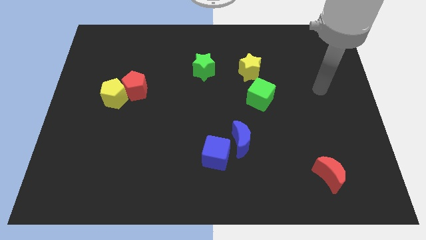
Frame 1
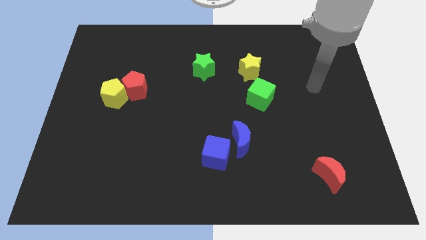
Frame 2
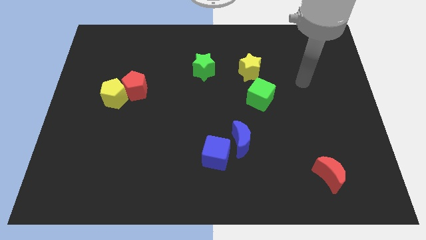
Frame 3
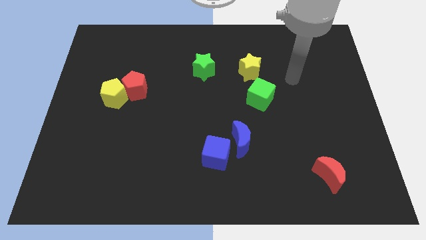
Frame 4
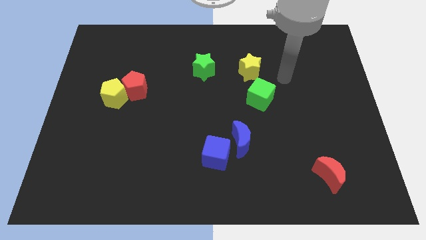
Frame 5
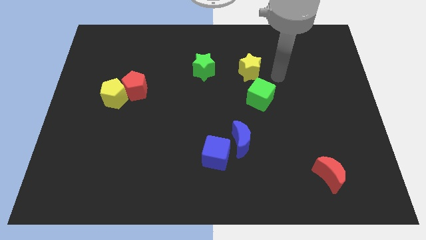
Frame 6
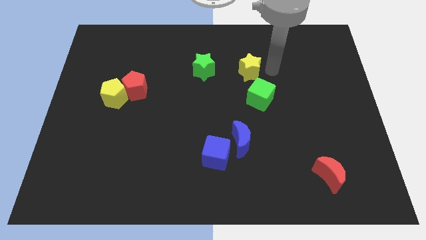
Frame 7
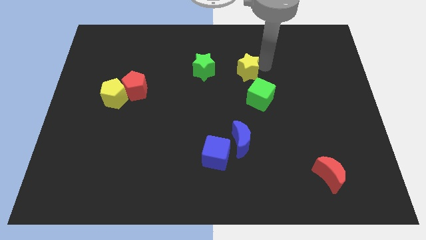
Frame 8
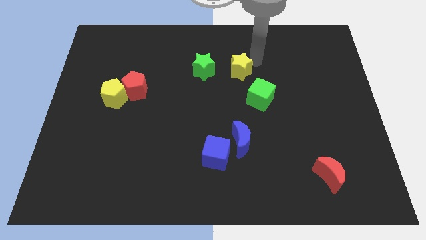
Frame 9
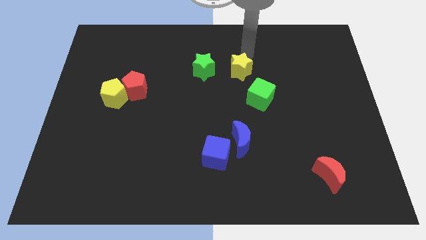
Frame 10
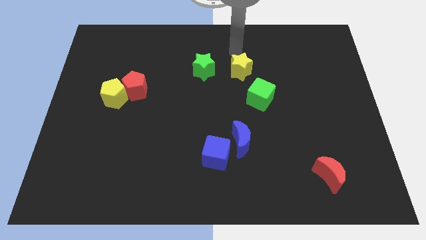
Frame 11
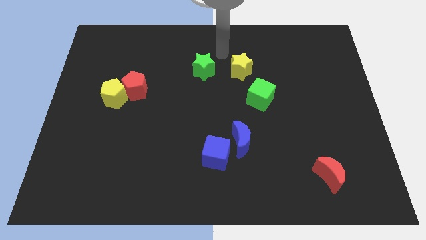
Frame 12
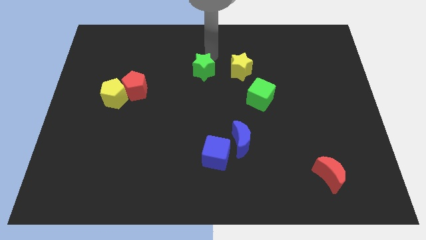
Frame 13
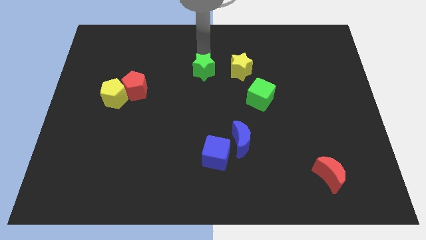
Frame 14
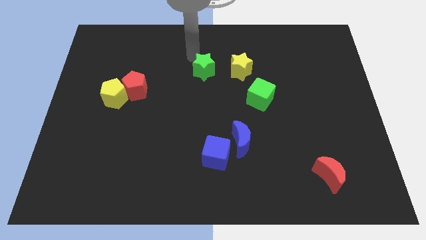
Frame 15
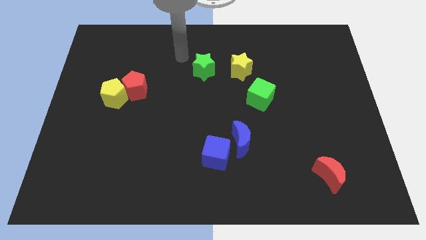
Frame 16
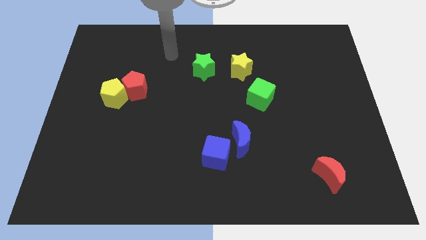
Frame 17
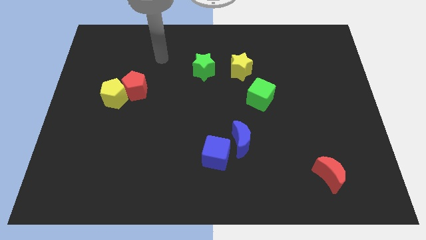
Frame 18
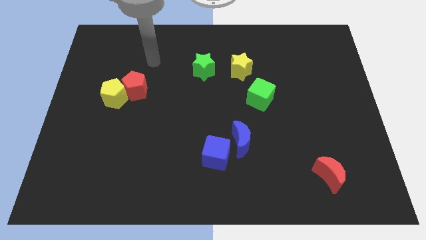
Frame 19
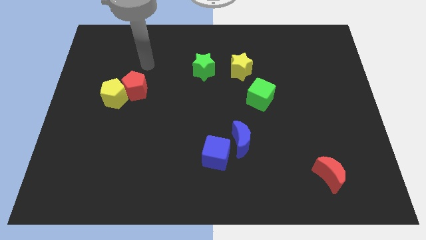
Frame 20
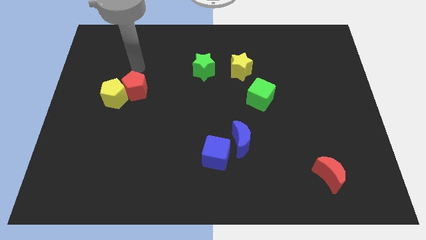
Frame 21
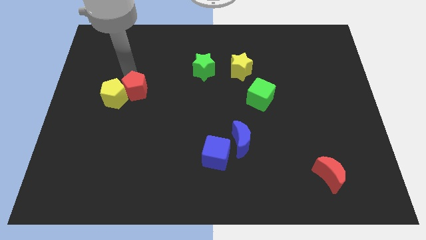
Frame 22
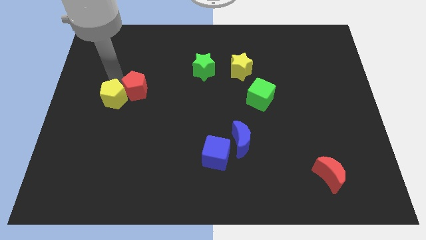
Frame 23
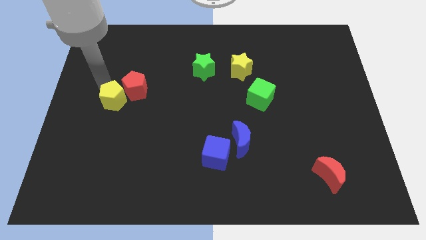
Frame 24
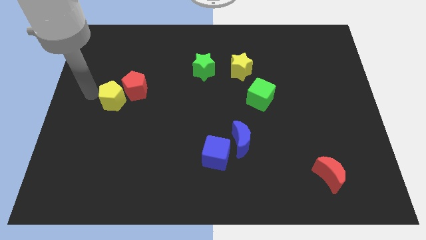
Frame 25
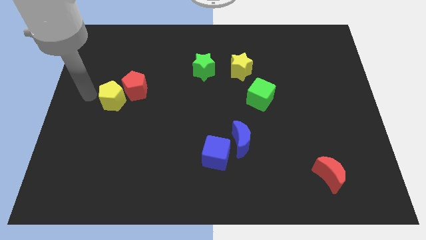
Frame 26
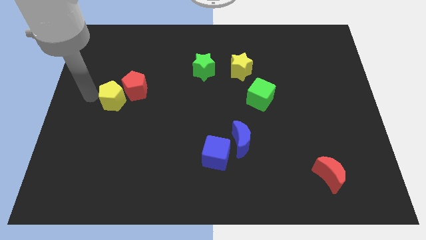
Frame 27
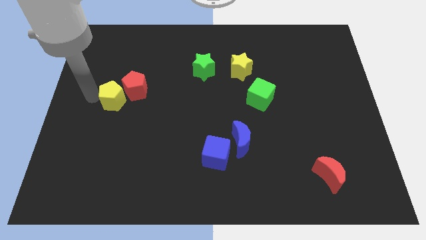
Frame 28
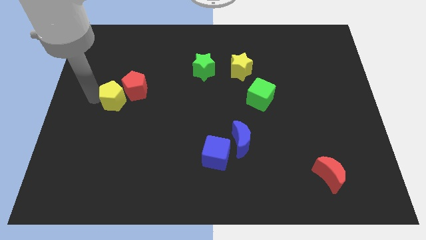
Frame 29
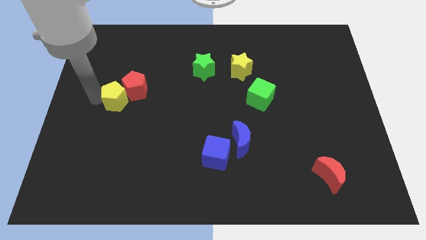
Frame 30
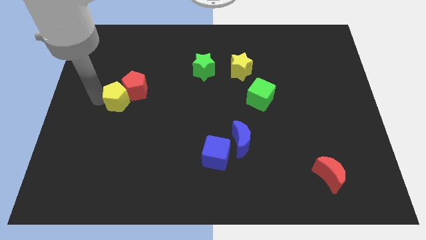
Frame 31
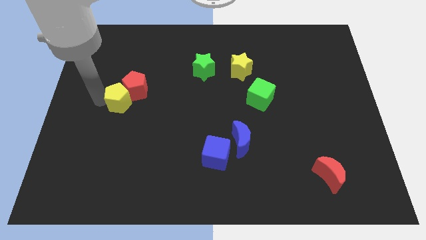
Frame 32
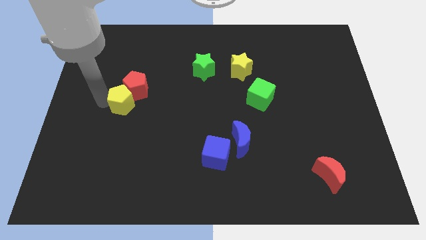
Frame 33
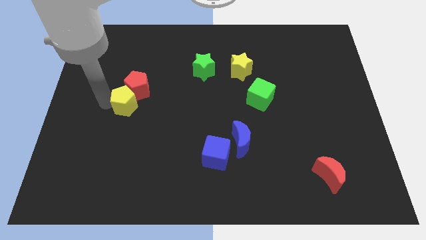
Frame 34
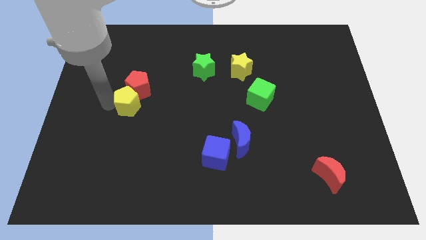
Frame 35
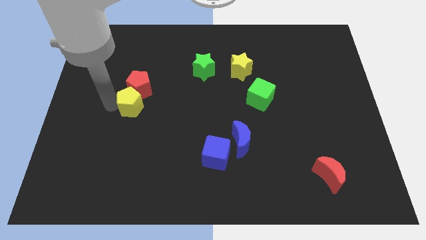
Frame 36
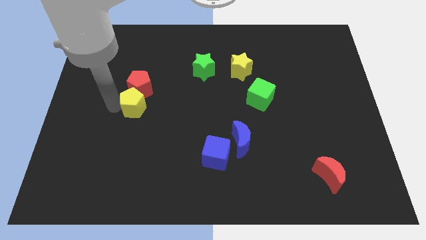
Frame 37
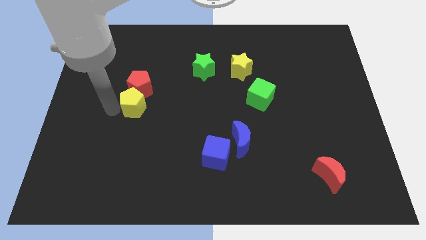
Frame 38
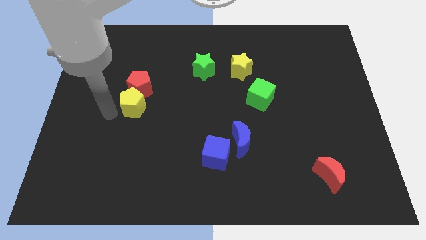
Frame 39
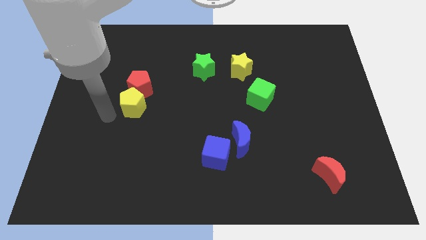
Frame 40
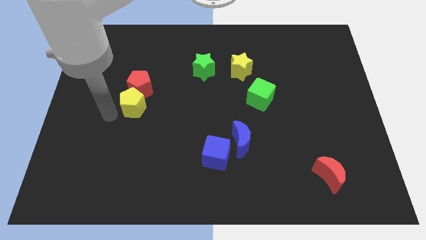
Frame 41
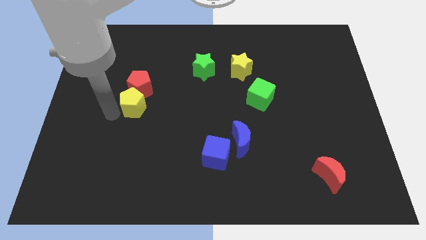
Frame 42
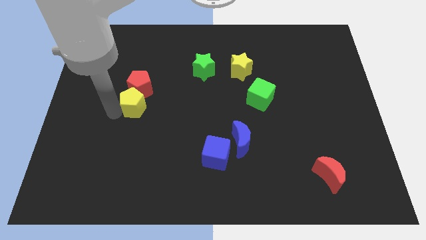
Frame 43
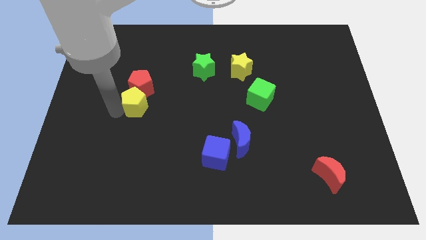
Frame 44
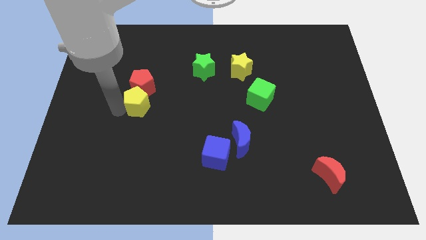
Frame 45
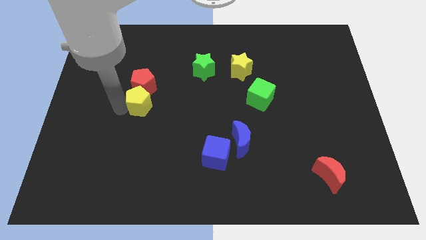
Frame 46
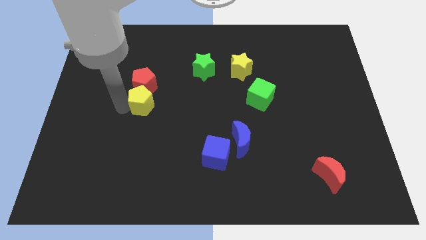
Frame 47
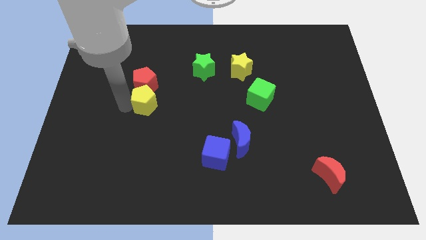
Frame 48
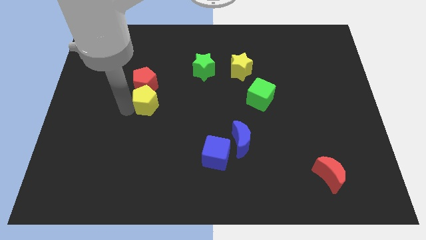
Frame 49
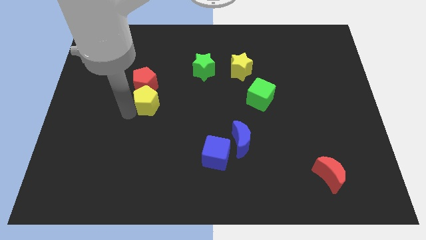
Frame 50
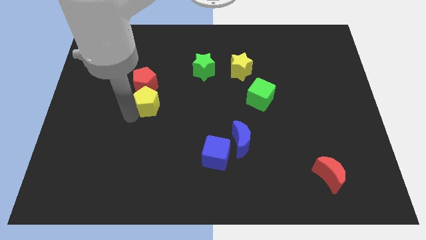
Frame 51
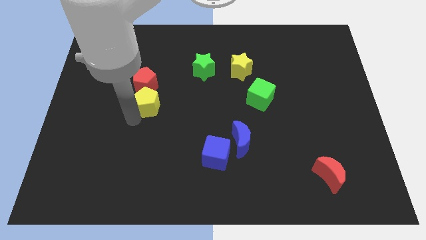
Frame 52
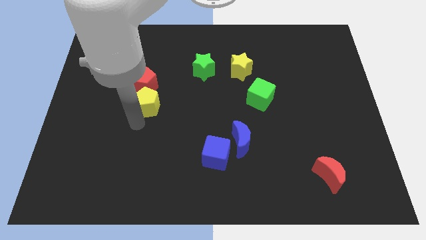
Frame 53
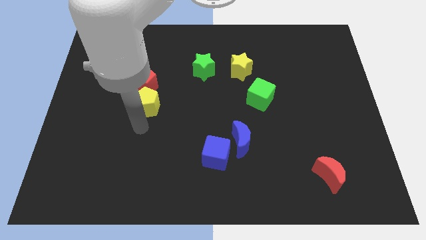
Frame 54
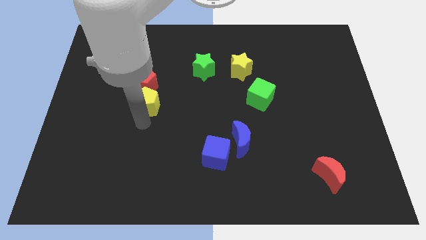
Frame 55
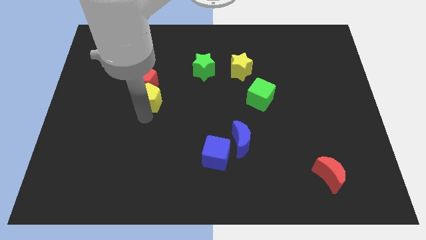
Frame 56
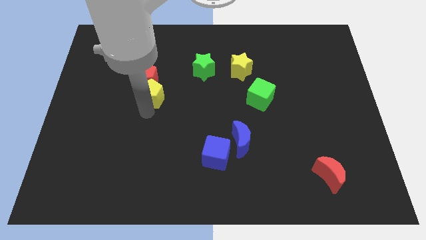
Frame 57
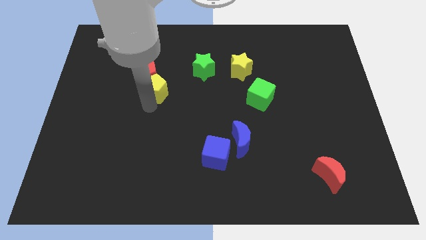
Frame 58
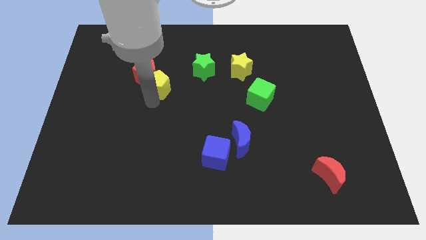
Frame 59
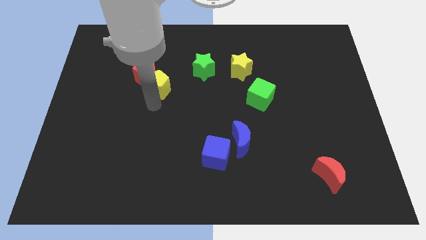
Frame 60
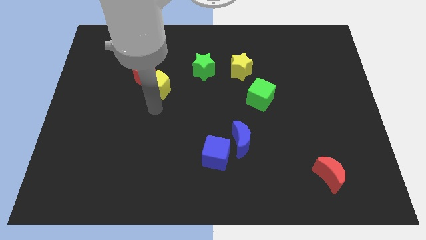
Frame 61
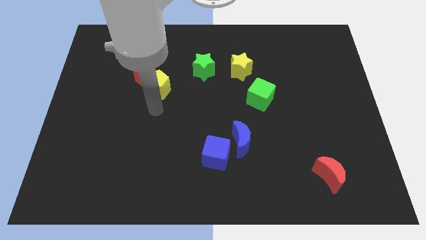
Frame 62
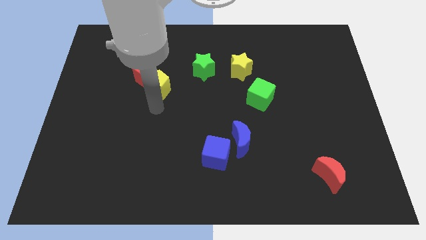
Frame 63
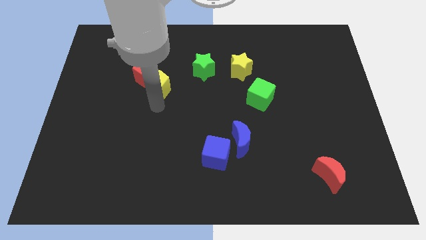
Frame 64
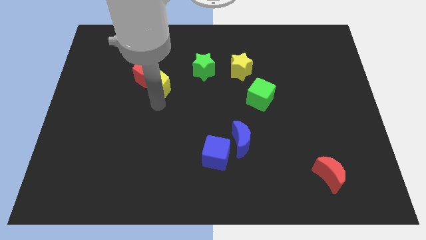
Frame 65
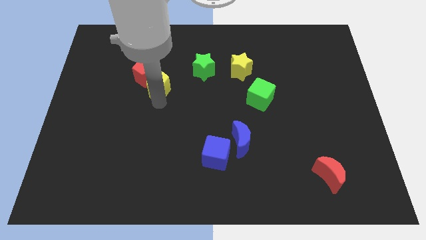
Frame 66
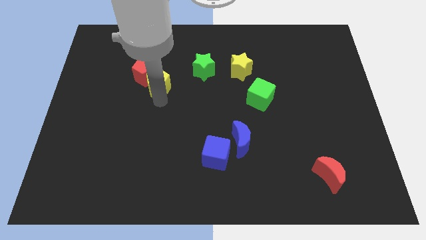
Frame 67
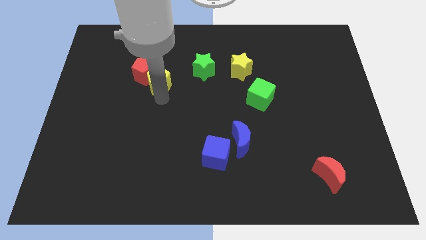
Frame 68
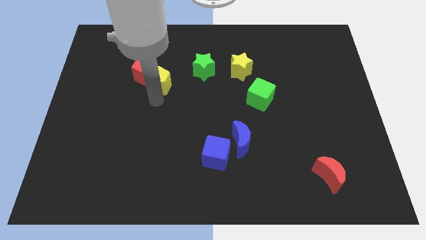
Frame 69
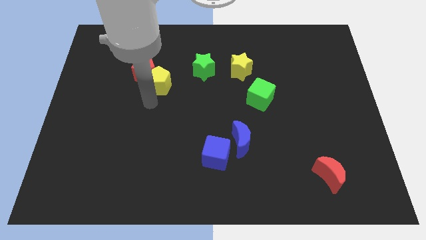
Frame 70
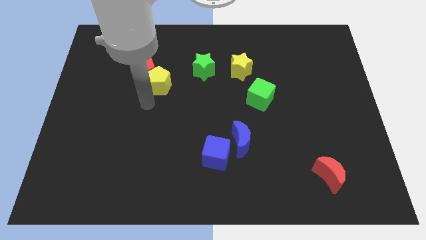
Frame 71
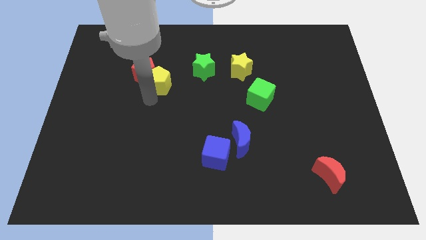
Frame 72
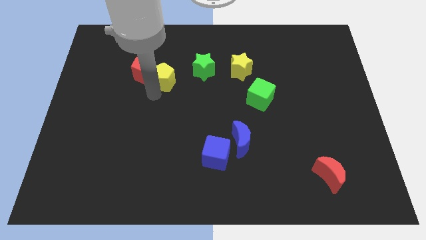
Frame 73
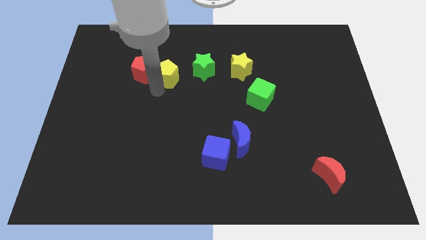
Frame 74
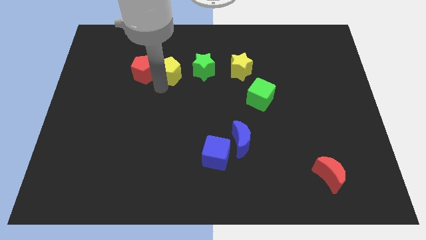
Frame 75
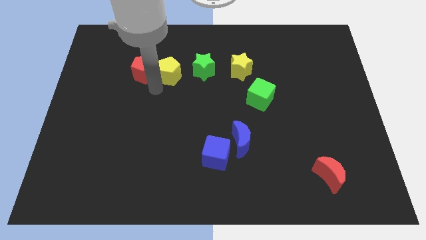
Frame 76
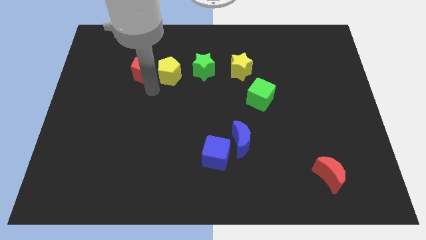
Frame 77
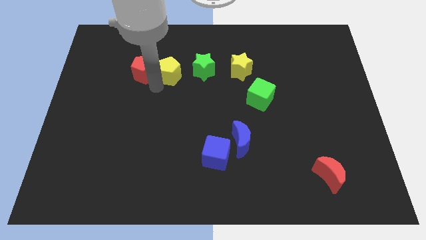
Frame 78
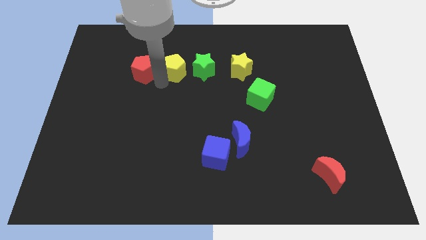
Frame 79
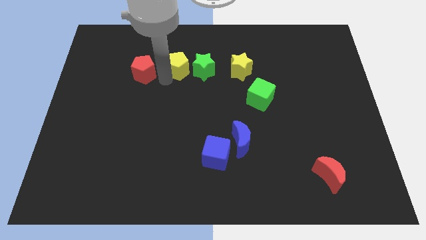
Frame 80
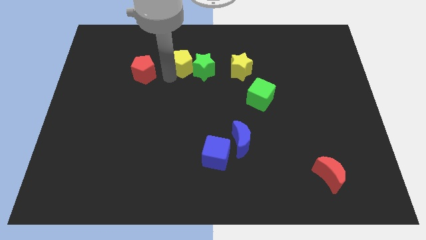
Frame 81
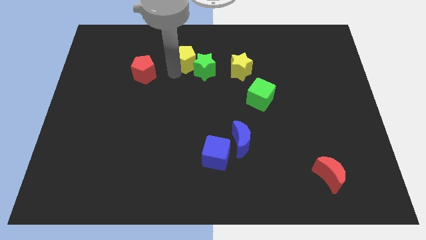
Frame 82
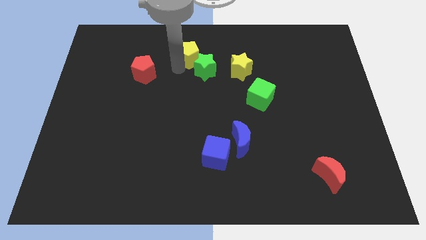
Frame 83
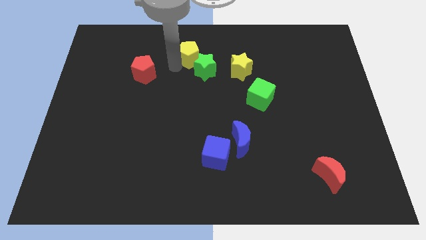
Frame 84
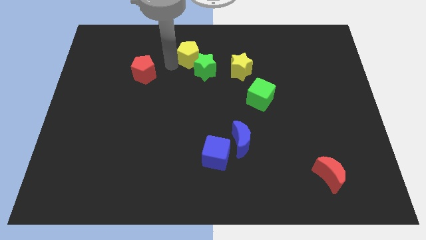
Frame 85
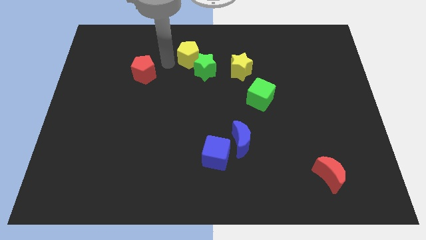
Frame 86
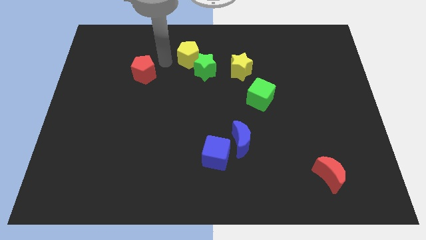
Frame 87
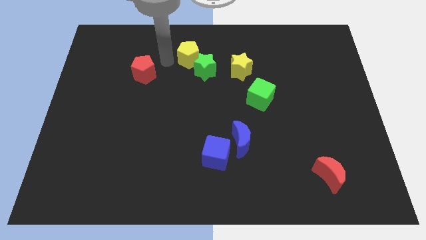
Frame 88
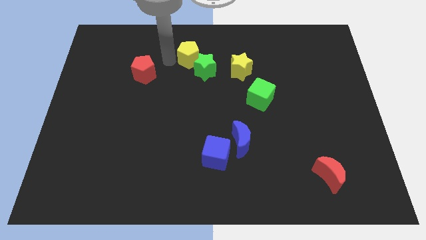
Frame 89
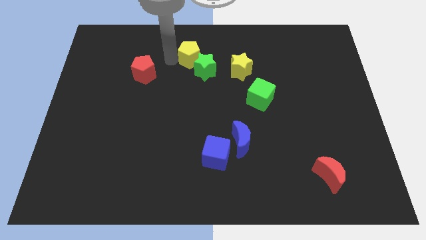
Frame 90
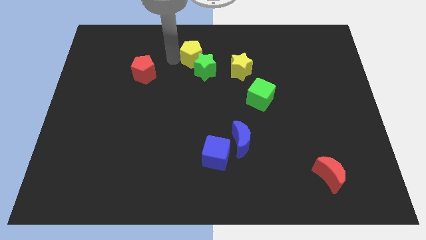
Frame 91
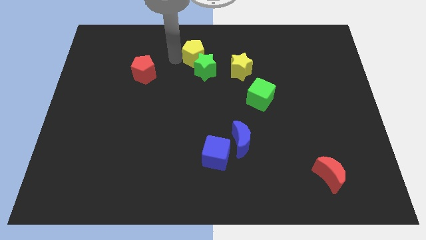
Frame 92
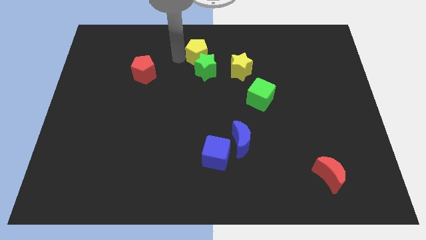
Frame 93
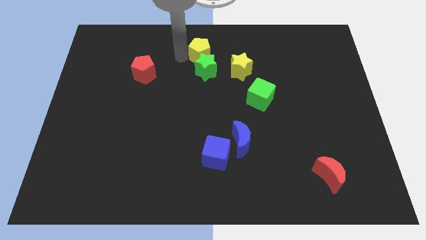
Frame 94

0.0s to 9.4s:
move the yellow pentagon diagonally up and to the right of the green star
